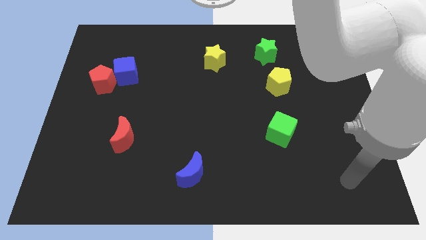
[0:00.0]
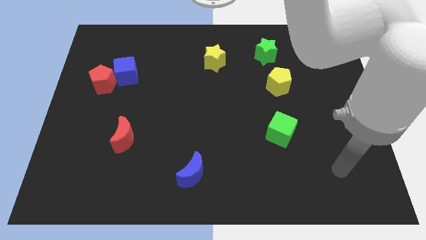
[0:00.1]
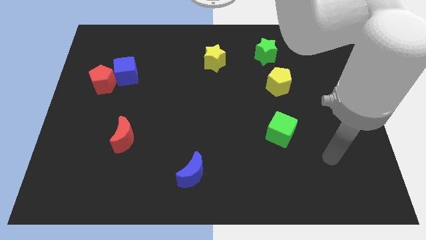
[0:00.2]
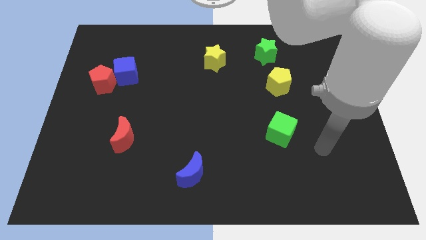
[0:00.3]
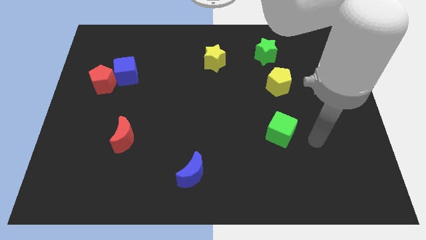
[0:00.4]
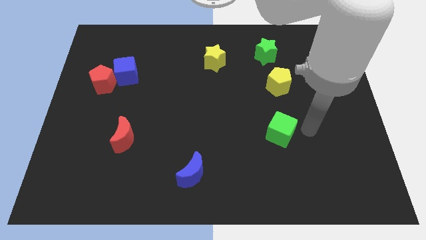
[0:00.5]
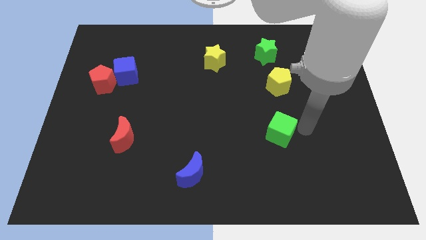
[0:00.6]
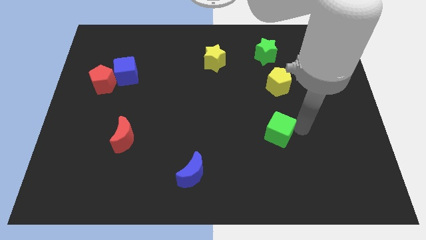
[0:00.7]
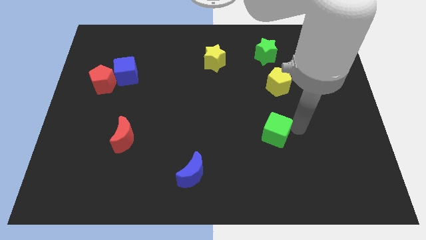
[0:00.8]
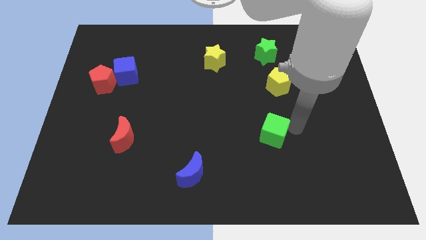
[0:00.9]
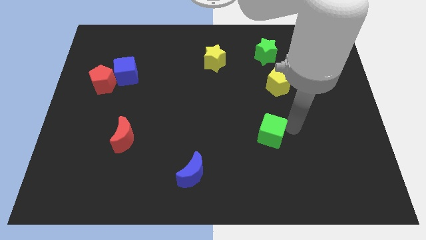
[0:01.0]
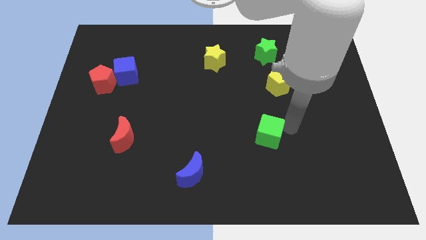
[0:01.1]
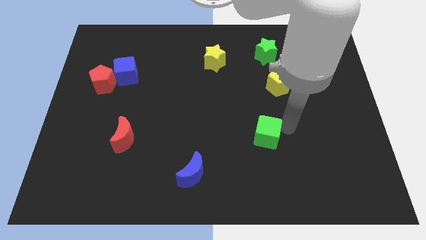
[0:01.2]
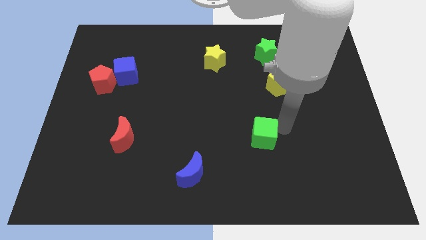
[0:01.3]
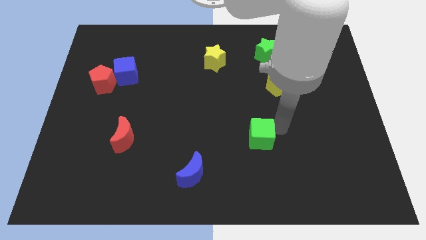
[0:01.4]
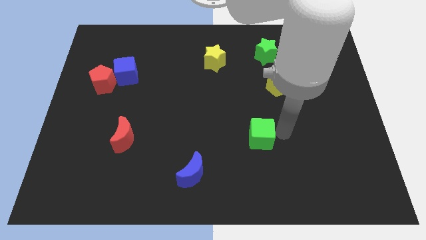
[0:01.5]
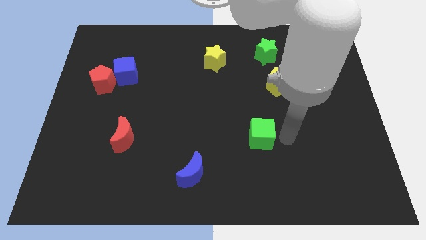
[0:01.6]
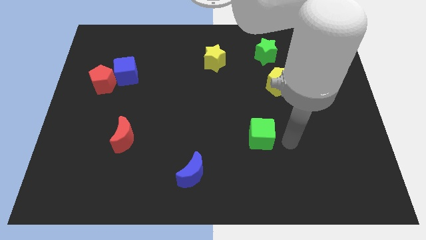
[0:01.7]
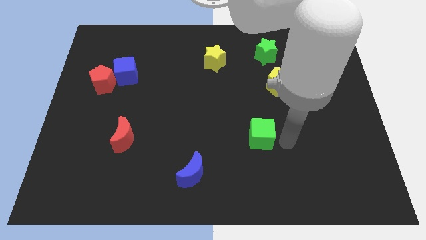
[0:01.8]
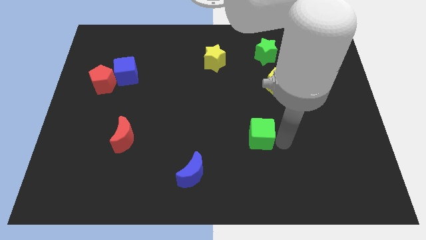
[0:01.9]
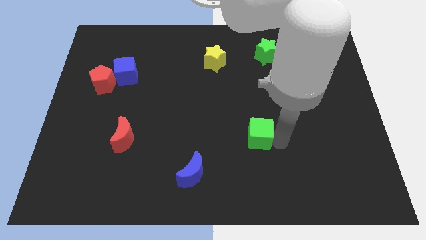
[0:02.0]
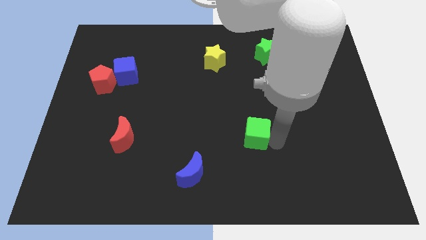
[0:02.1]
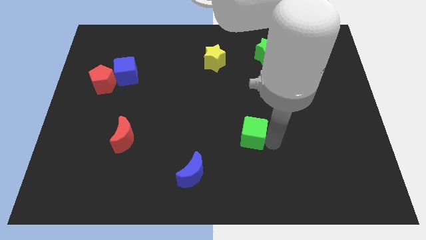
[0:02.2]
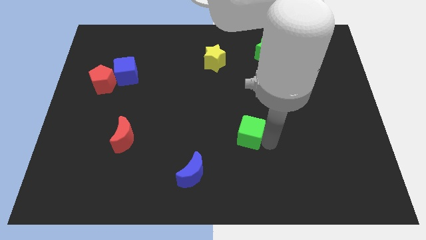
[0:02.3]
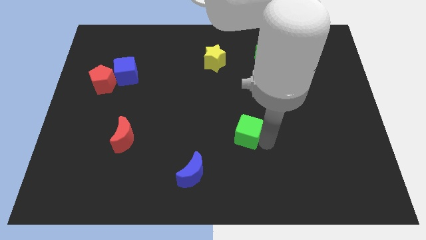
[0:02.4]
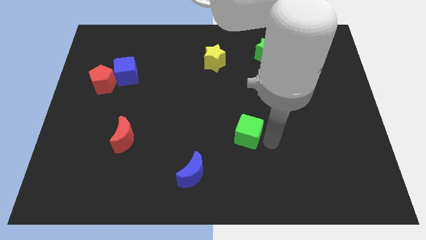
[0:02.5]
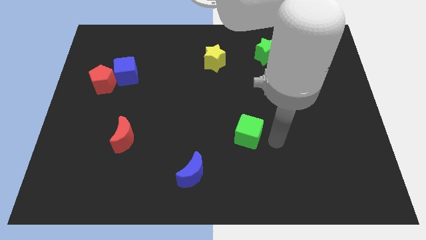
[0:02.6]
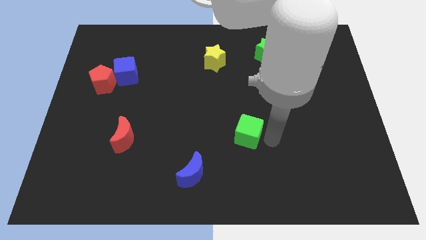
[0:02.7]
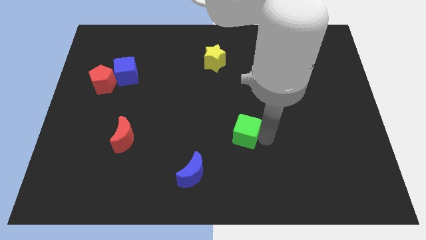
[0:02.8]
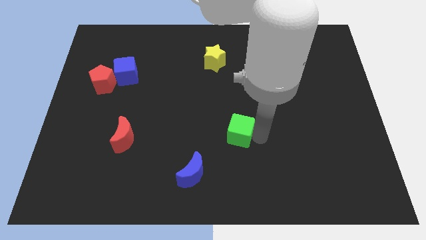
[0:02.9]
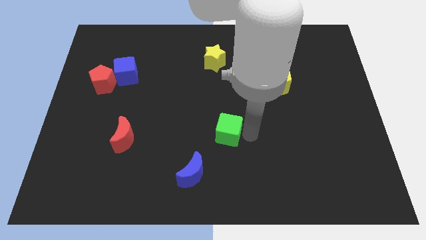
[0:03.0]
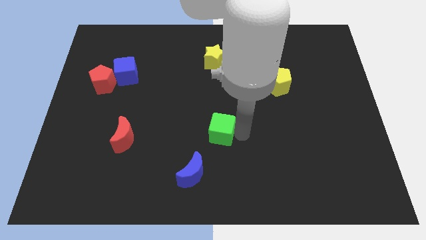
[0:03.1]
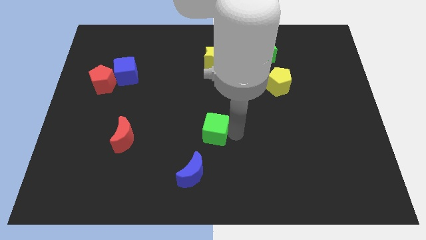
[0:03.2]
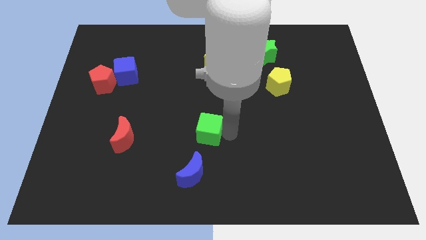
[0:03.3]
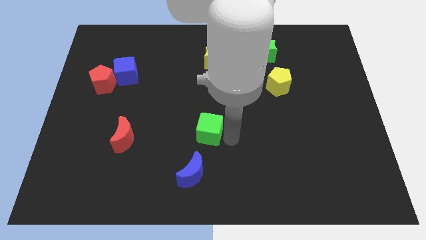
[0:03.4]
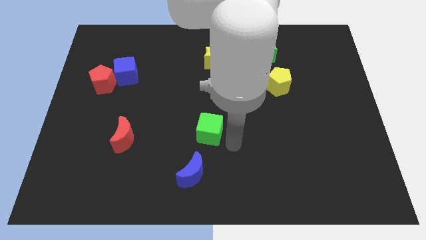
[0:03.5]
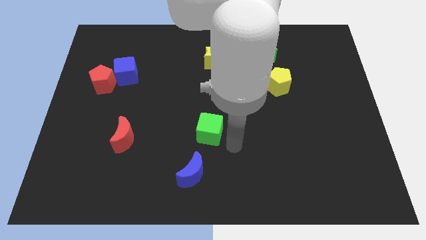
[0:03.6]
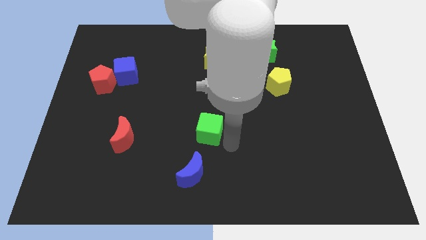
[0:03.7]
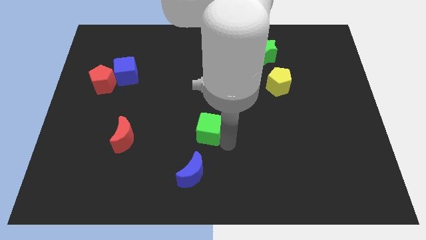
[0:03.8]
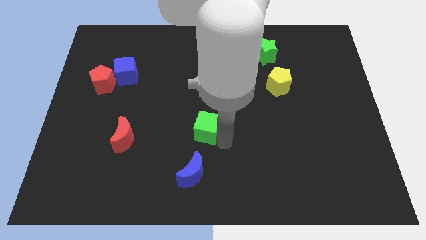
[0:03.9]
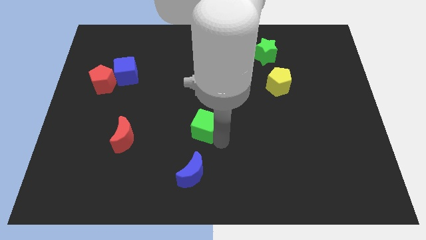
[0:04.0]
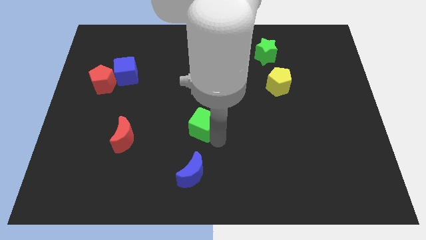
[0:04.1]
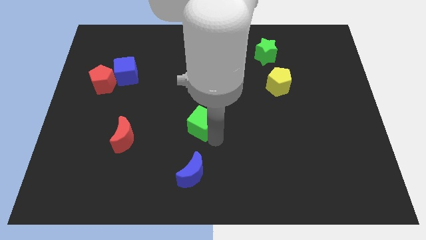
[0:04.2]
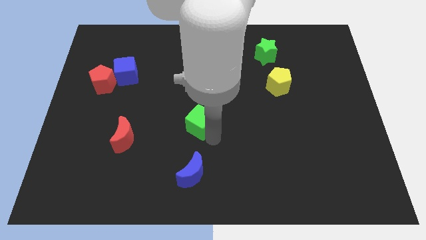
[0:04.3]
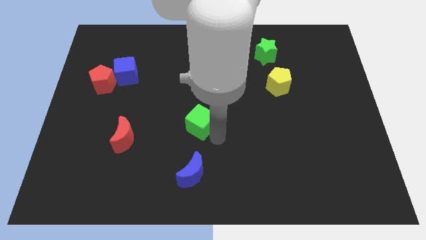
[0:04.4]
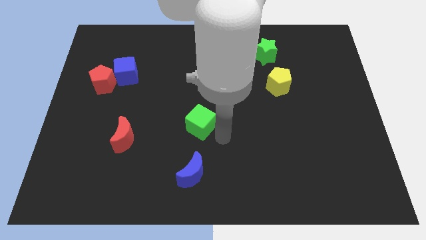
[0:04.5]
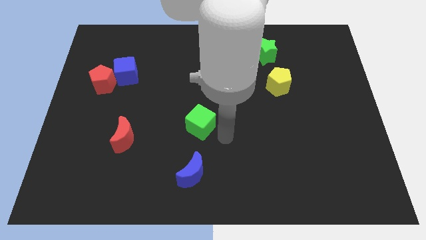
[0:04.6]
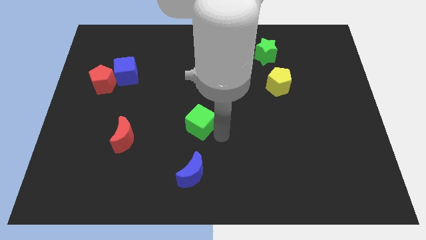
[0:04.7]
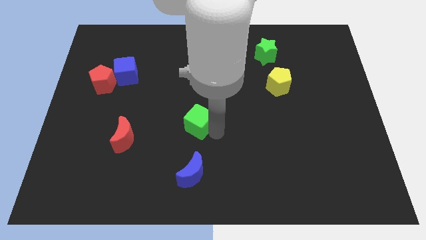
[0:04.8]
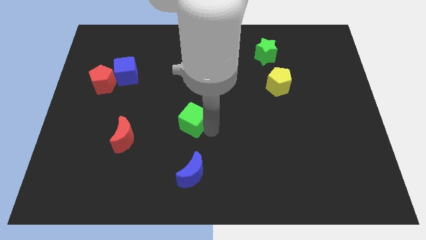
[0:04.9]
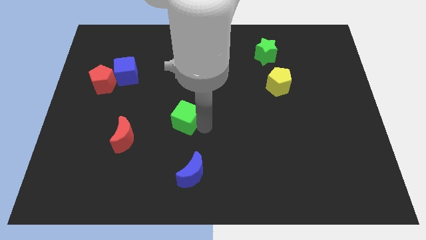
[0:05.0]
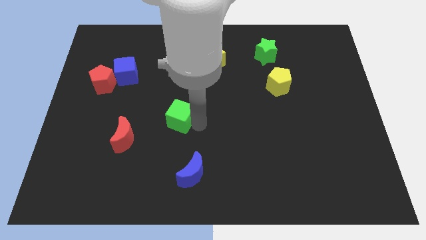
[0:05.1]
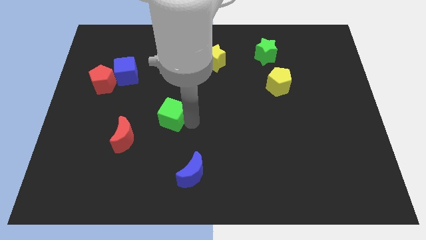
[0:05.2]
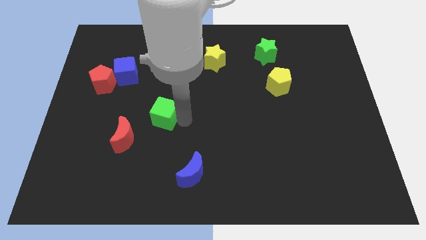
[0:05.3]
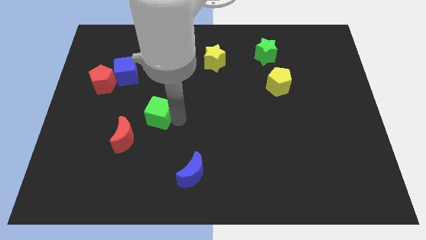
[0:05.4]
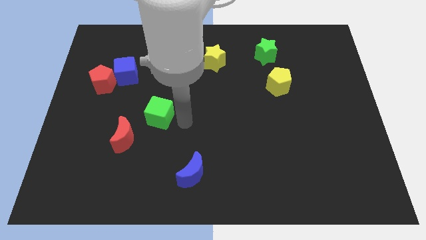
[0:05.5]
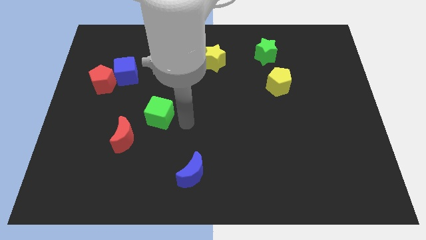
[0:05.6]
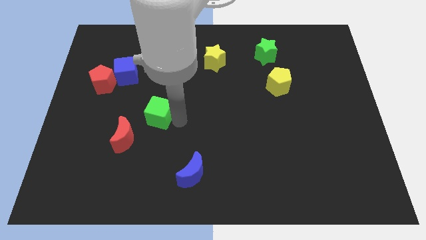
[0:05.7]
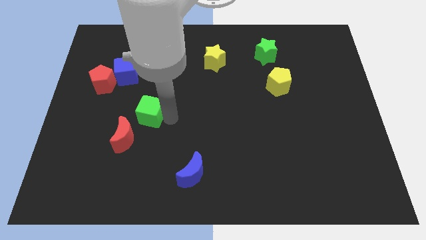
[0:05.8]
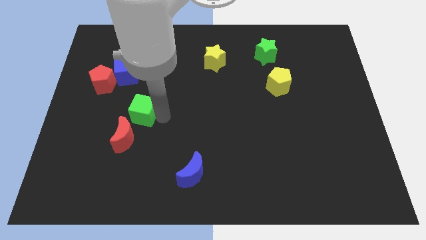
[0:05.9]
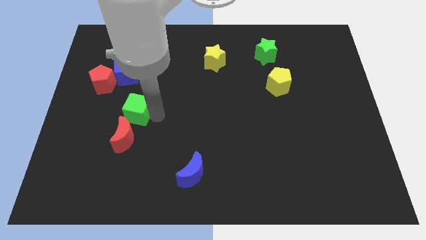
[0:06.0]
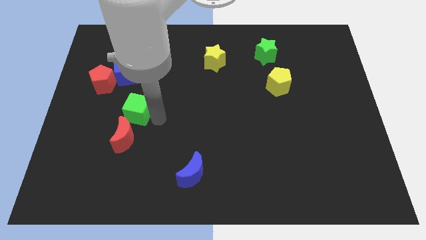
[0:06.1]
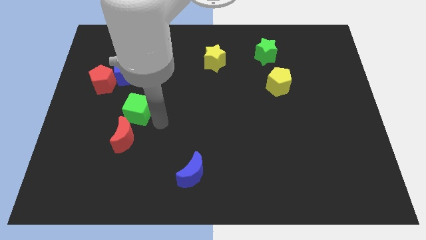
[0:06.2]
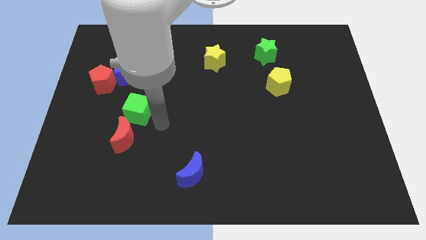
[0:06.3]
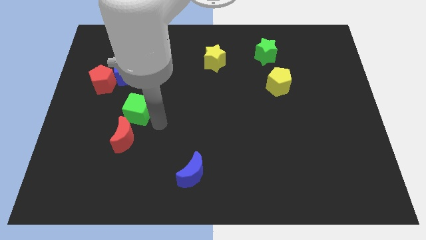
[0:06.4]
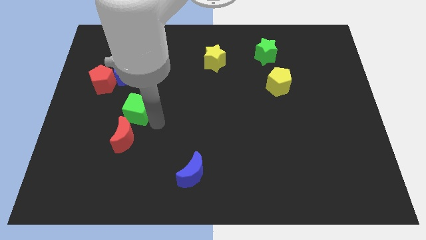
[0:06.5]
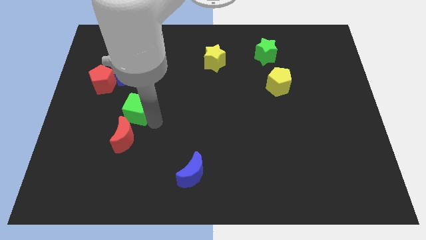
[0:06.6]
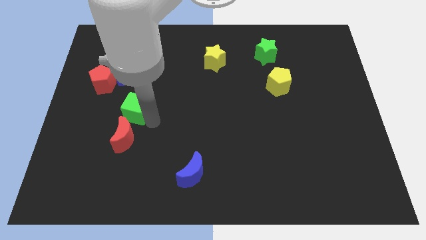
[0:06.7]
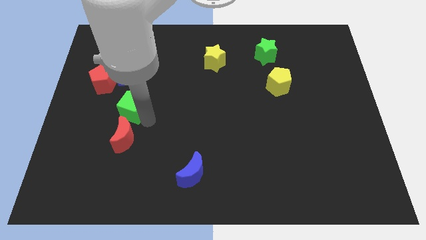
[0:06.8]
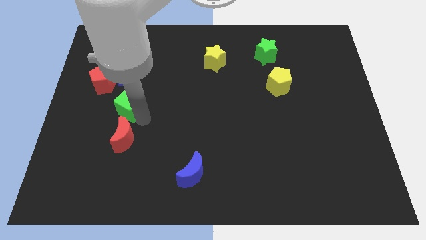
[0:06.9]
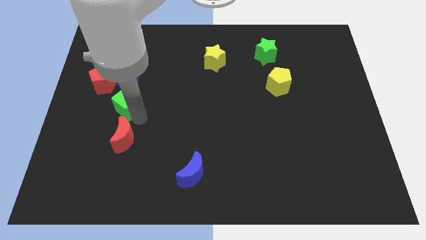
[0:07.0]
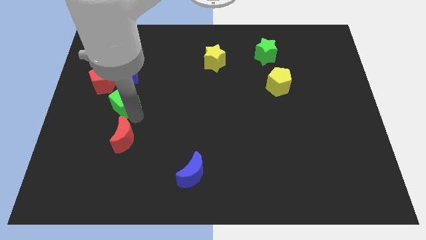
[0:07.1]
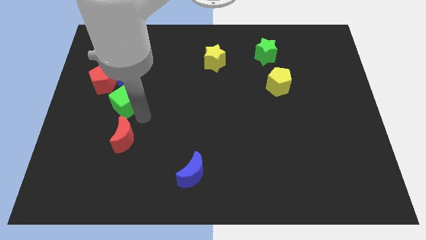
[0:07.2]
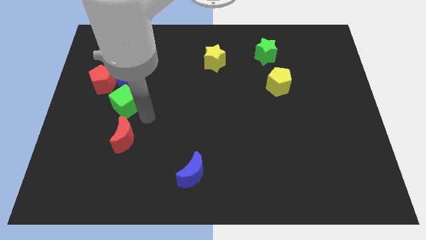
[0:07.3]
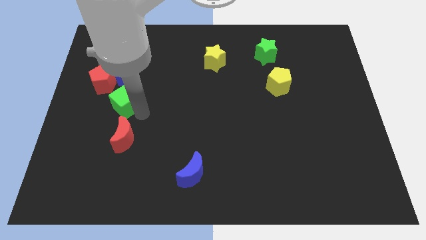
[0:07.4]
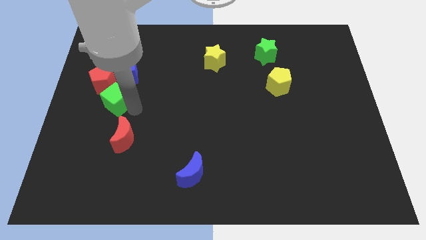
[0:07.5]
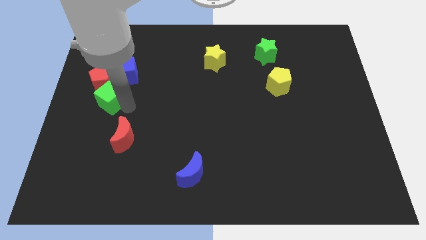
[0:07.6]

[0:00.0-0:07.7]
slide the green cube to the bottom left of the blue cube
